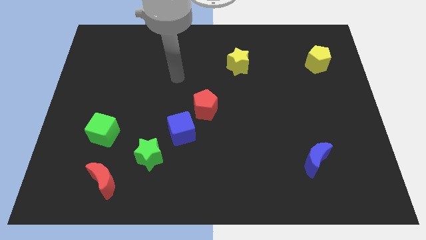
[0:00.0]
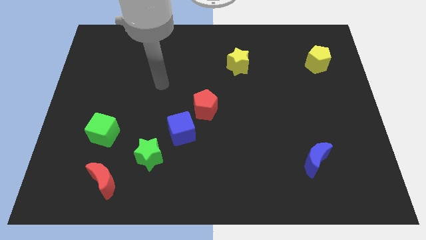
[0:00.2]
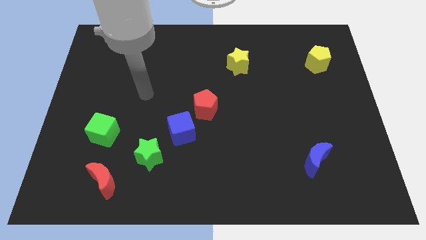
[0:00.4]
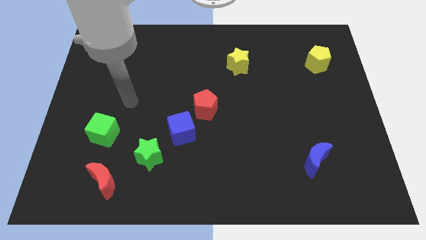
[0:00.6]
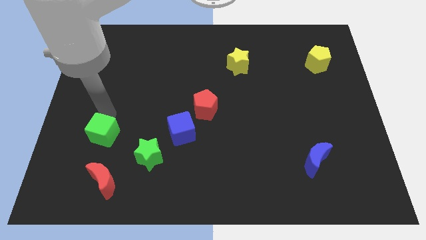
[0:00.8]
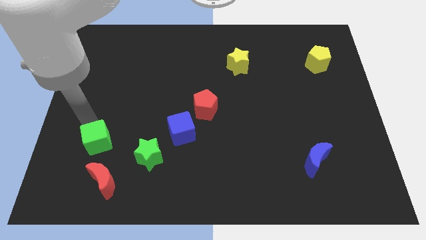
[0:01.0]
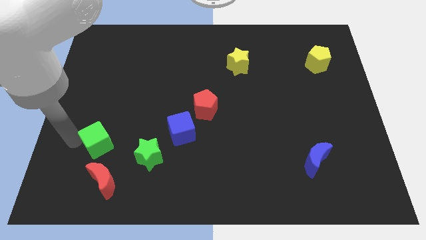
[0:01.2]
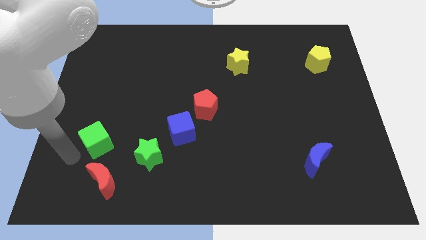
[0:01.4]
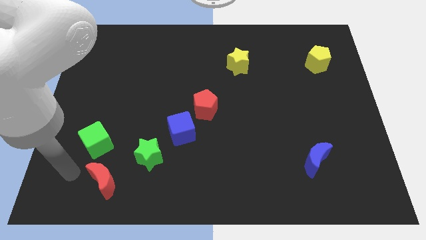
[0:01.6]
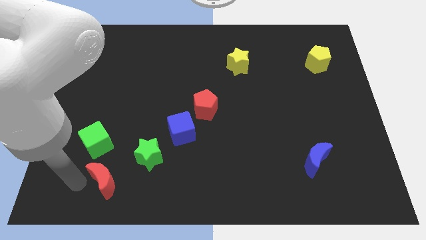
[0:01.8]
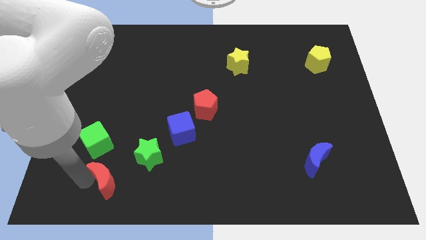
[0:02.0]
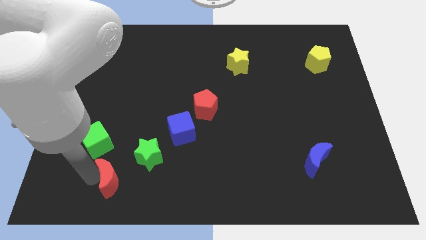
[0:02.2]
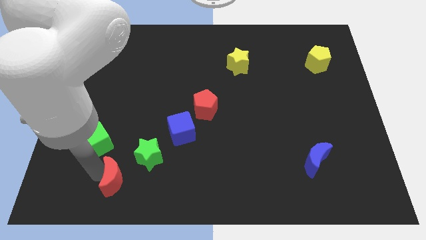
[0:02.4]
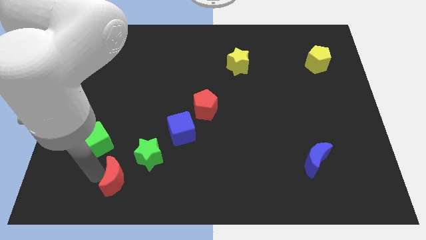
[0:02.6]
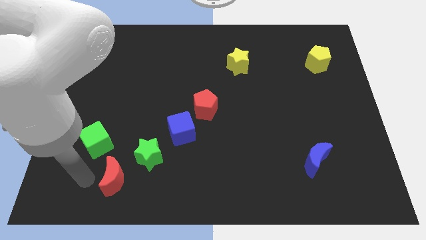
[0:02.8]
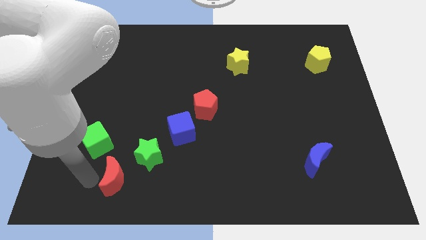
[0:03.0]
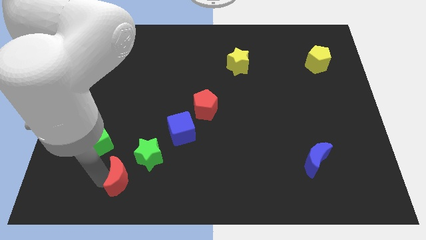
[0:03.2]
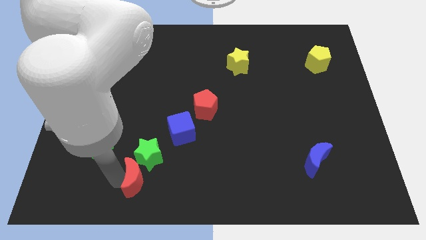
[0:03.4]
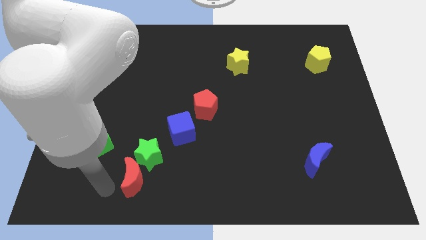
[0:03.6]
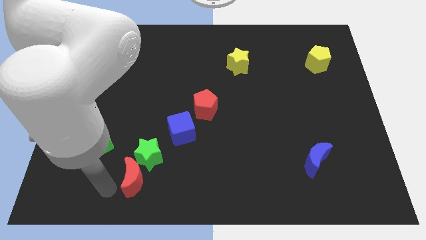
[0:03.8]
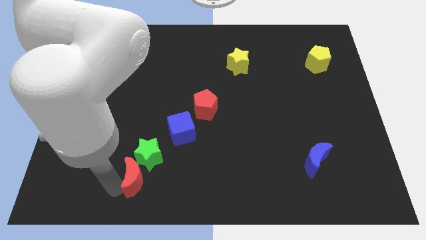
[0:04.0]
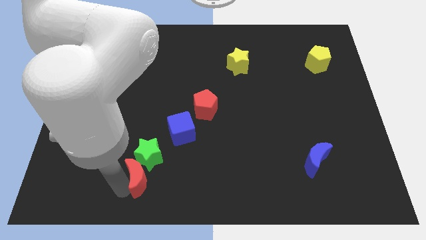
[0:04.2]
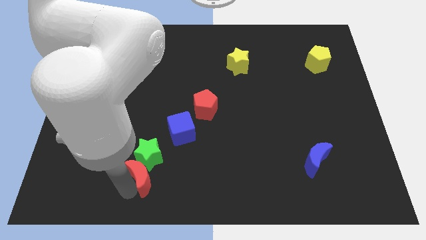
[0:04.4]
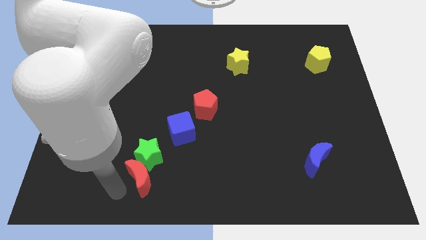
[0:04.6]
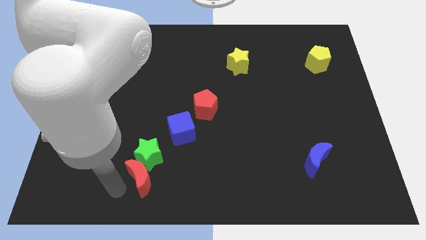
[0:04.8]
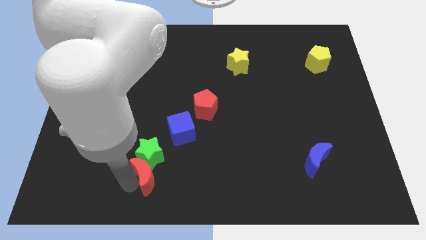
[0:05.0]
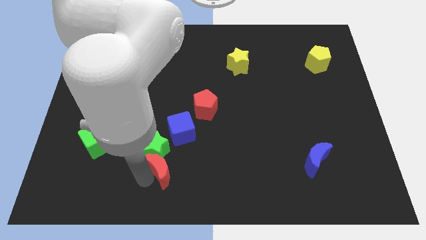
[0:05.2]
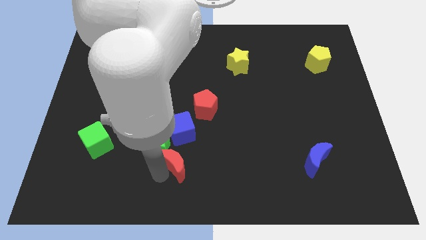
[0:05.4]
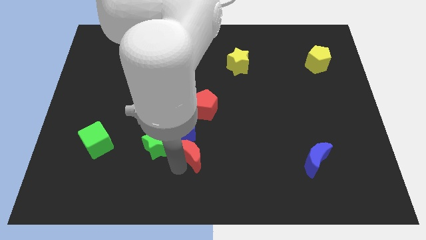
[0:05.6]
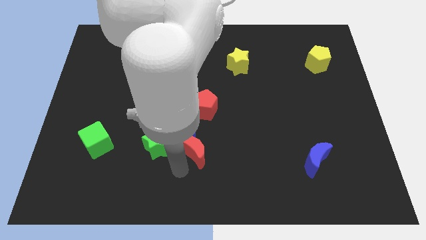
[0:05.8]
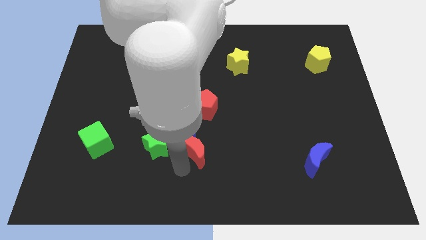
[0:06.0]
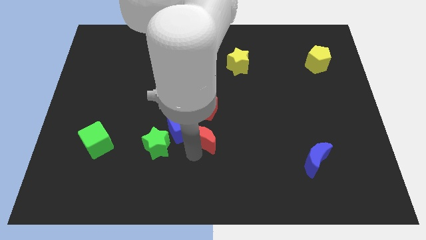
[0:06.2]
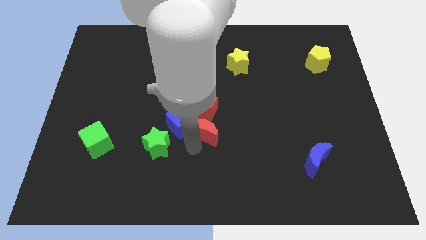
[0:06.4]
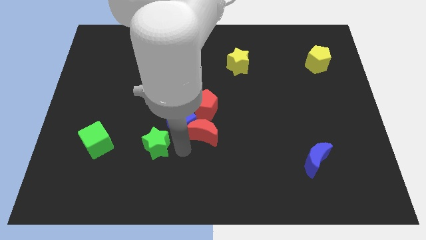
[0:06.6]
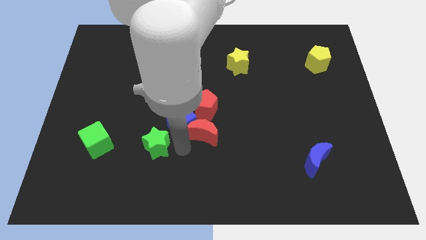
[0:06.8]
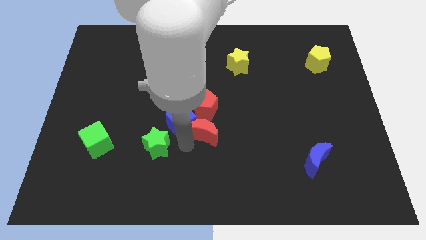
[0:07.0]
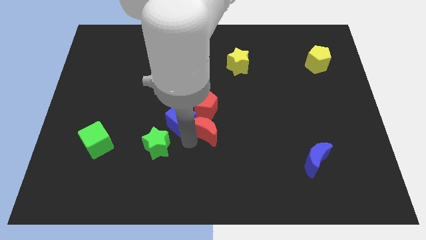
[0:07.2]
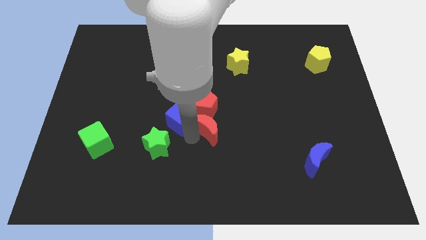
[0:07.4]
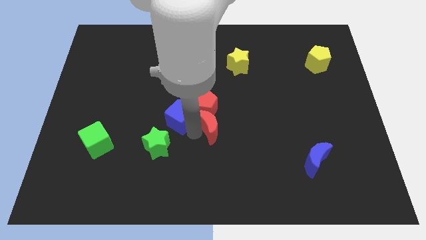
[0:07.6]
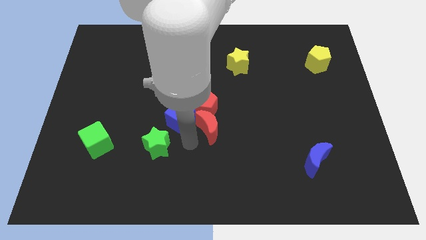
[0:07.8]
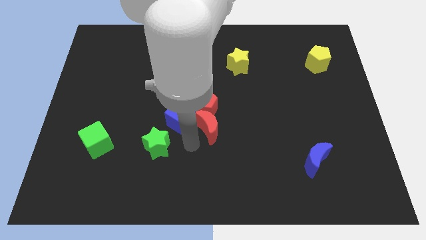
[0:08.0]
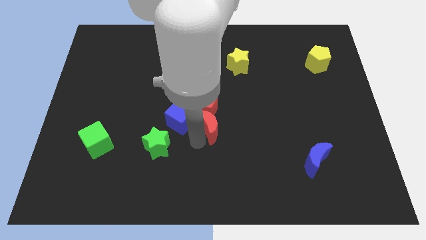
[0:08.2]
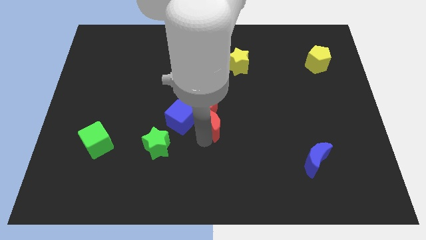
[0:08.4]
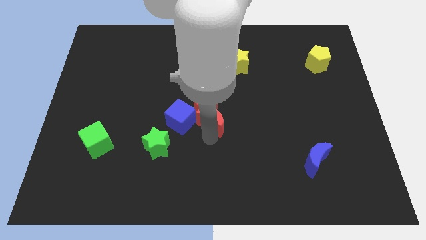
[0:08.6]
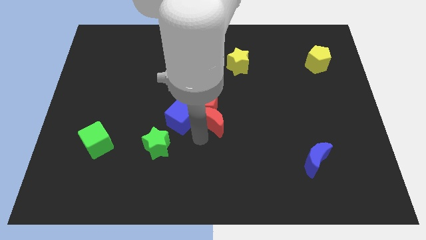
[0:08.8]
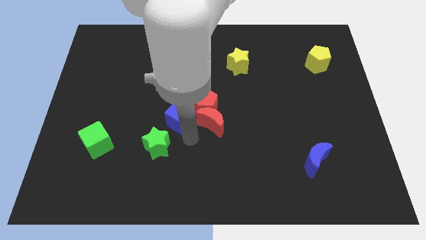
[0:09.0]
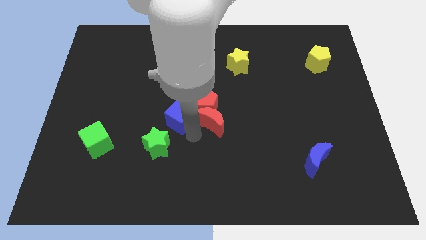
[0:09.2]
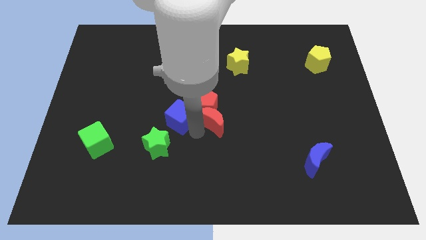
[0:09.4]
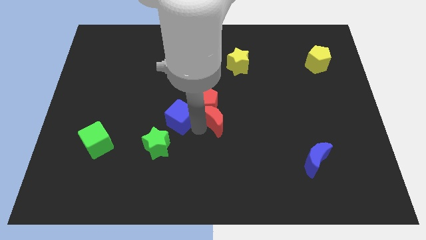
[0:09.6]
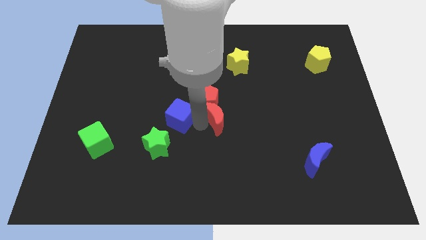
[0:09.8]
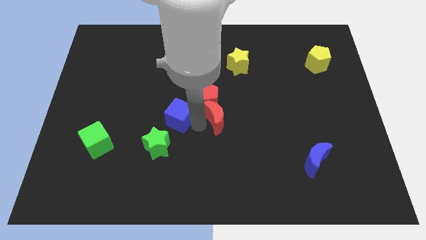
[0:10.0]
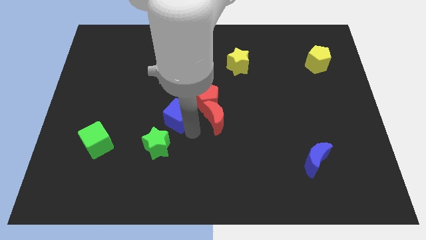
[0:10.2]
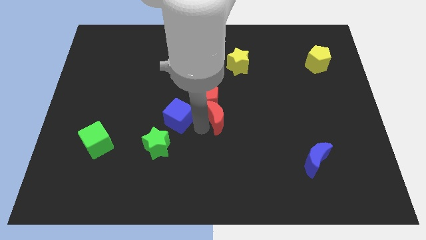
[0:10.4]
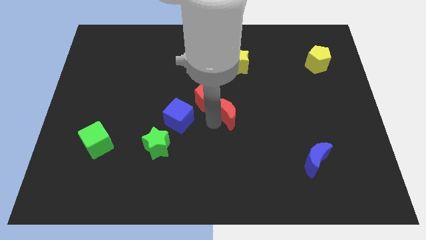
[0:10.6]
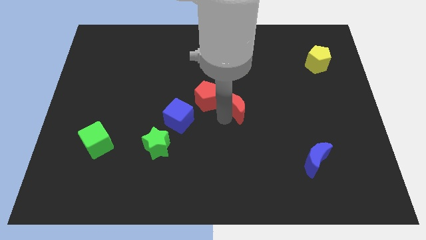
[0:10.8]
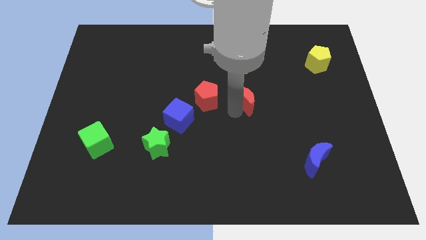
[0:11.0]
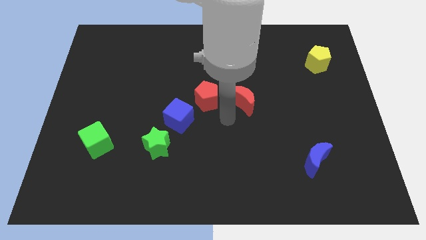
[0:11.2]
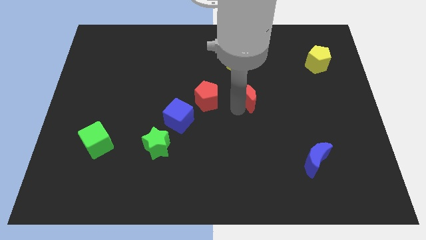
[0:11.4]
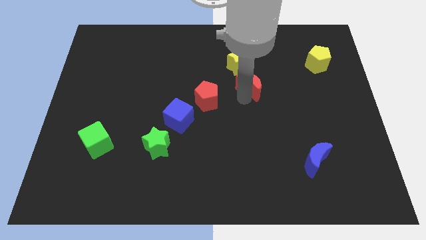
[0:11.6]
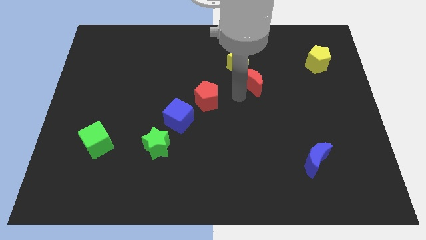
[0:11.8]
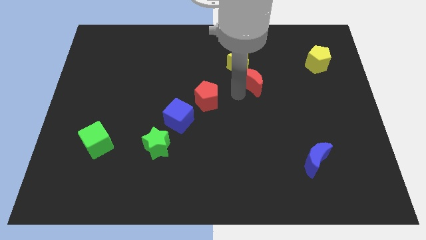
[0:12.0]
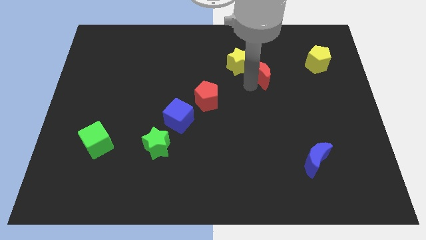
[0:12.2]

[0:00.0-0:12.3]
push the red moon to the right of the yellow star

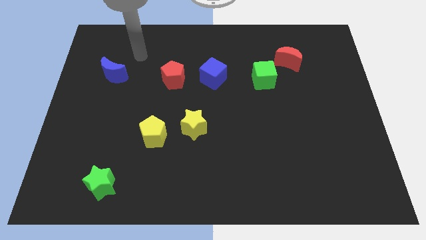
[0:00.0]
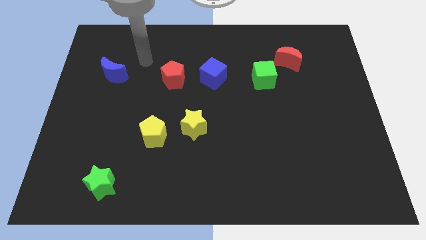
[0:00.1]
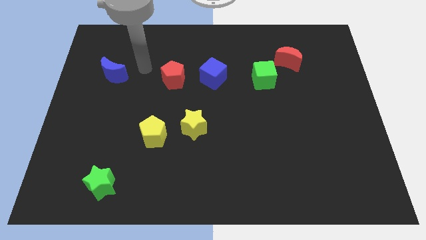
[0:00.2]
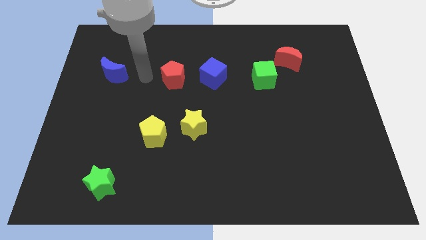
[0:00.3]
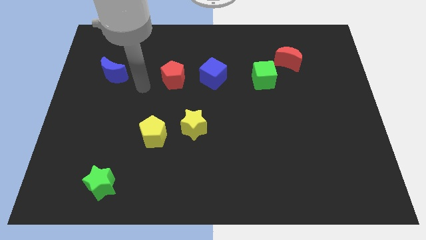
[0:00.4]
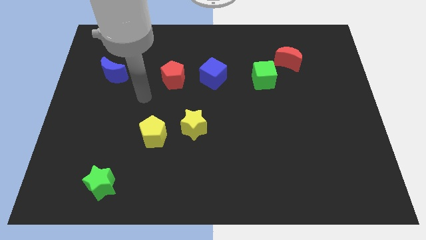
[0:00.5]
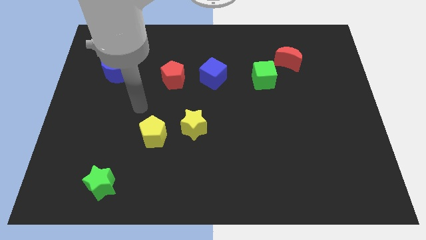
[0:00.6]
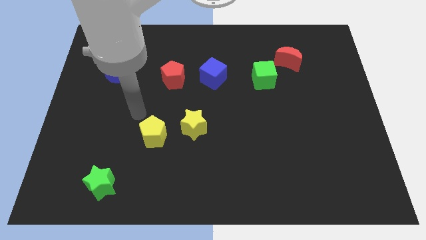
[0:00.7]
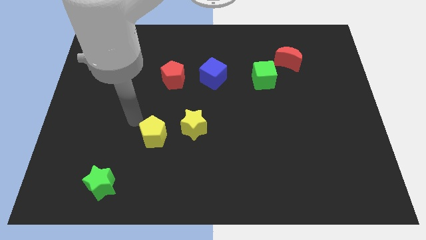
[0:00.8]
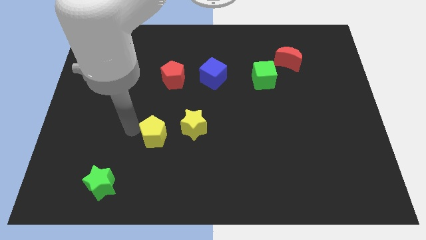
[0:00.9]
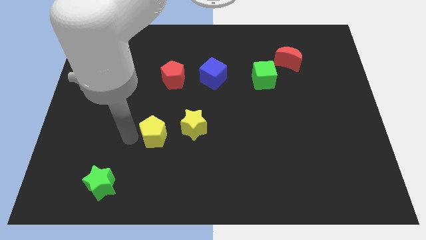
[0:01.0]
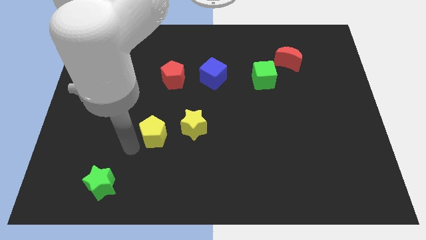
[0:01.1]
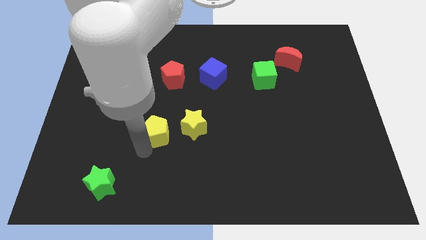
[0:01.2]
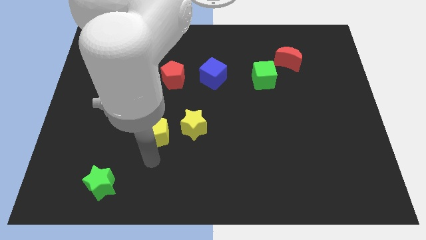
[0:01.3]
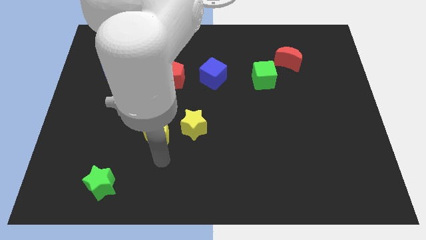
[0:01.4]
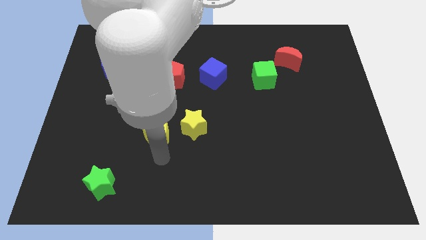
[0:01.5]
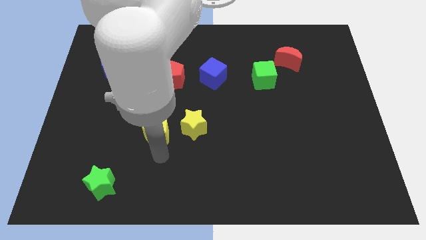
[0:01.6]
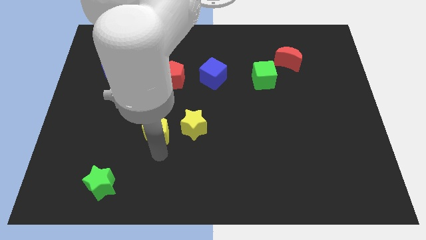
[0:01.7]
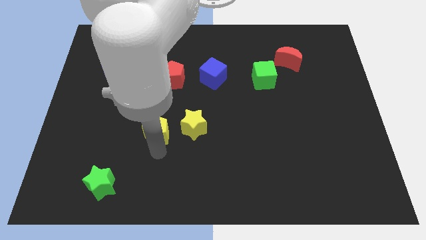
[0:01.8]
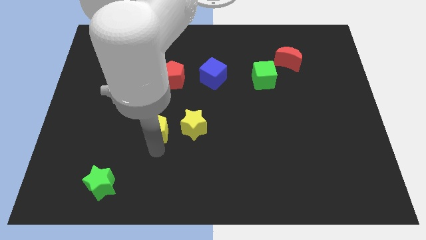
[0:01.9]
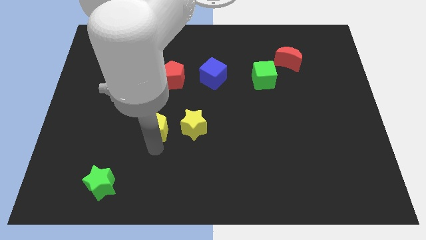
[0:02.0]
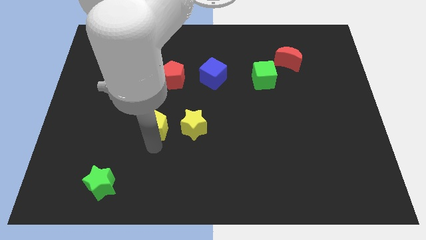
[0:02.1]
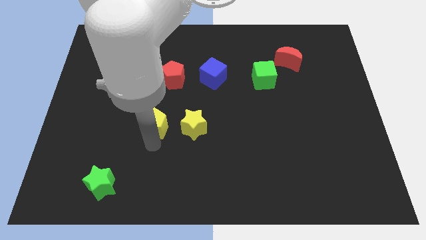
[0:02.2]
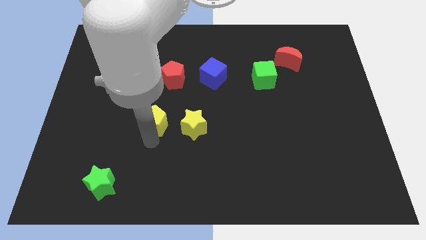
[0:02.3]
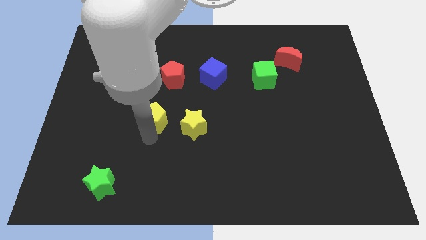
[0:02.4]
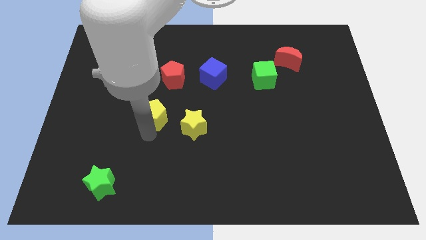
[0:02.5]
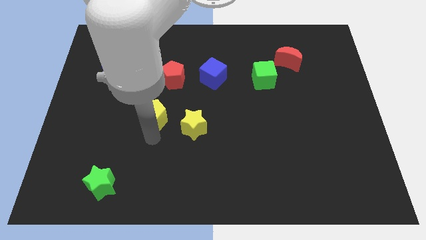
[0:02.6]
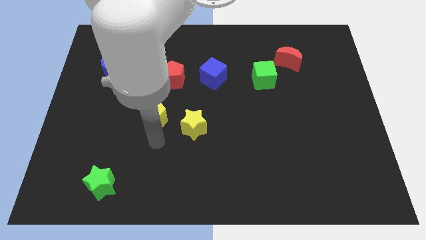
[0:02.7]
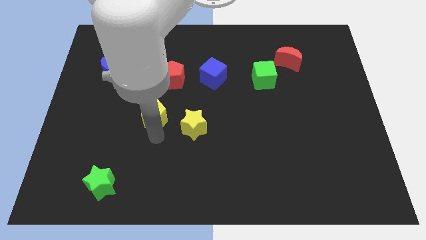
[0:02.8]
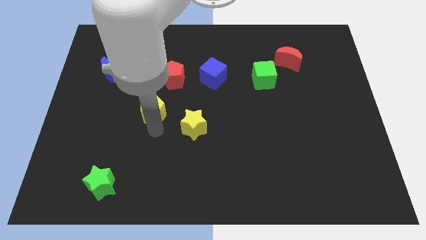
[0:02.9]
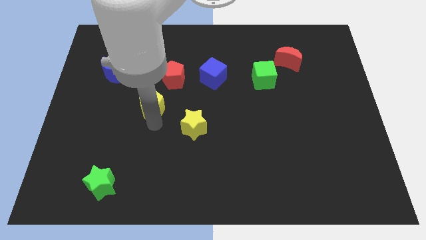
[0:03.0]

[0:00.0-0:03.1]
push the yellow pentagon diagonally down and to the left of the red pentagon
